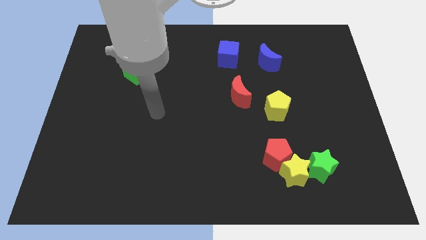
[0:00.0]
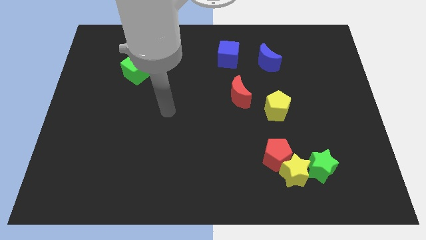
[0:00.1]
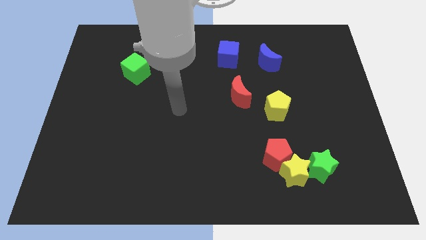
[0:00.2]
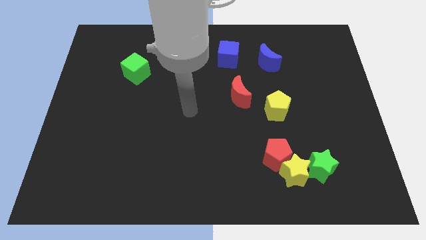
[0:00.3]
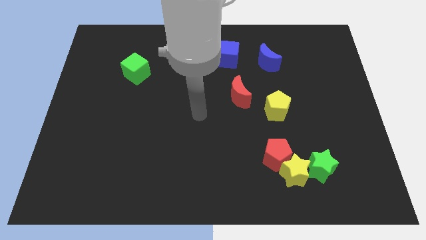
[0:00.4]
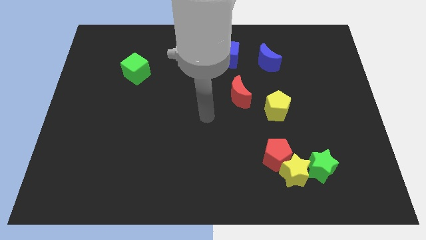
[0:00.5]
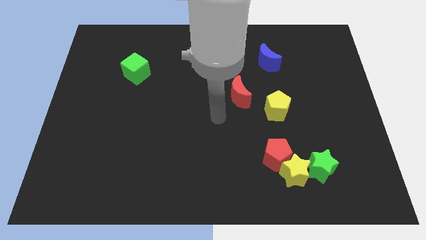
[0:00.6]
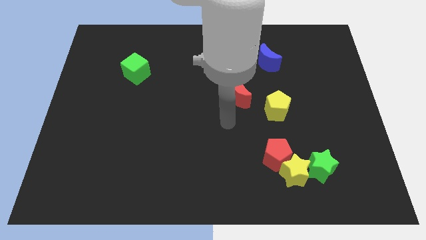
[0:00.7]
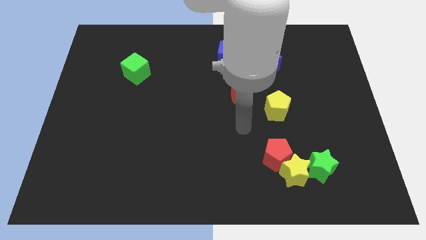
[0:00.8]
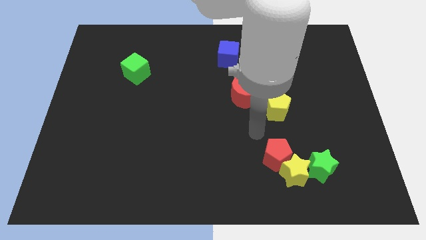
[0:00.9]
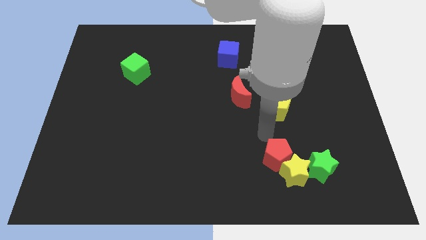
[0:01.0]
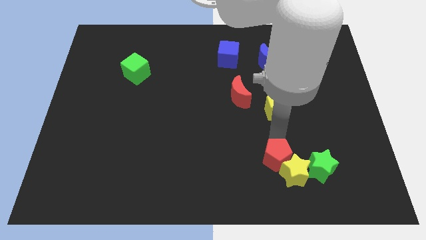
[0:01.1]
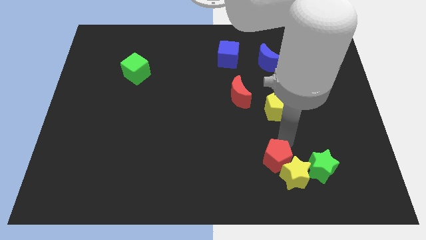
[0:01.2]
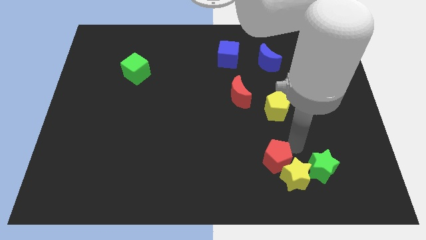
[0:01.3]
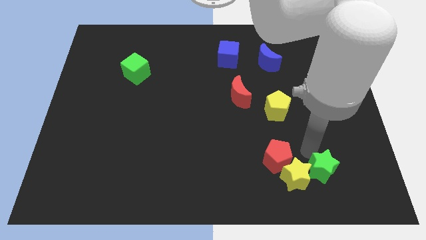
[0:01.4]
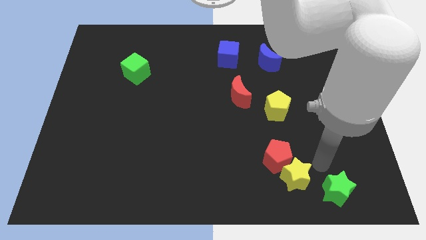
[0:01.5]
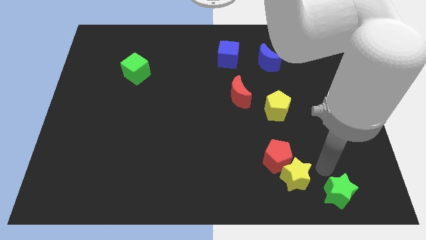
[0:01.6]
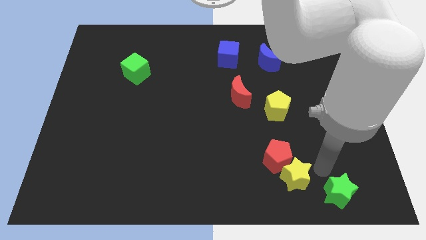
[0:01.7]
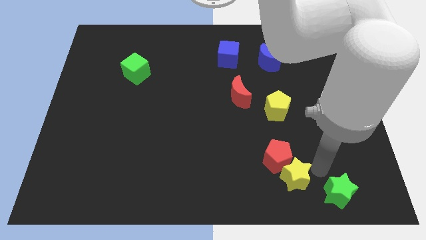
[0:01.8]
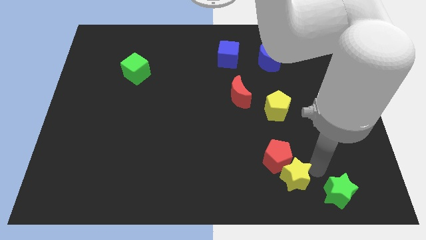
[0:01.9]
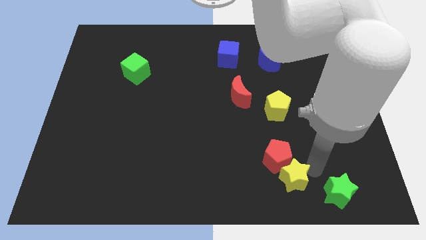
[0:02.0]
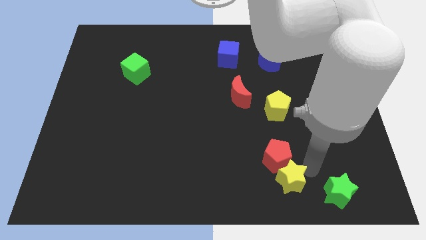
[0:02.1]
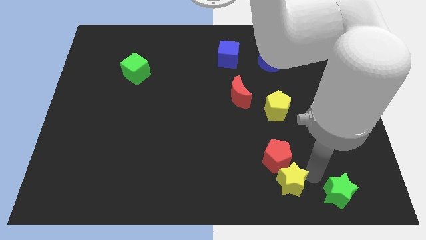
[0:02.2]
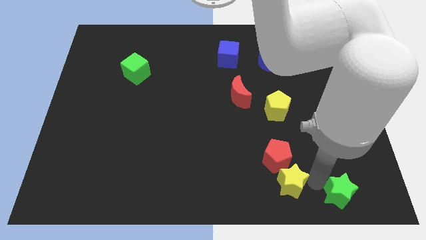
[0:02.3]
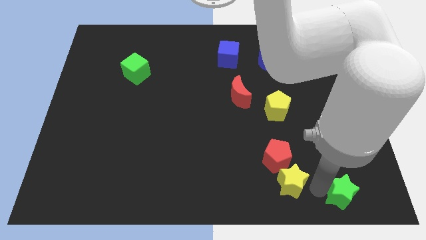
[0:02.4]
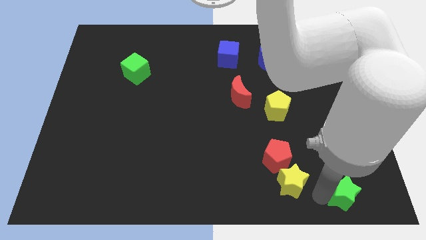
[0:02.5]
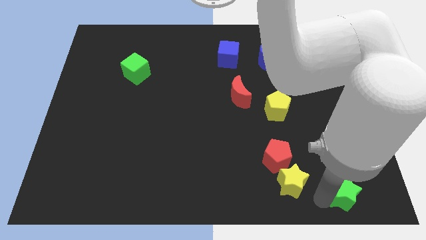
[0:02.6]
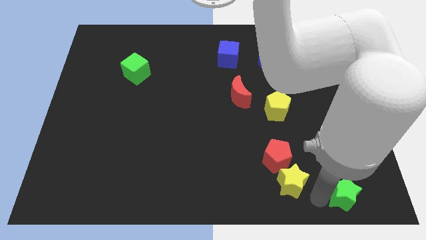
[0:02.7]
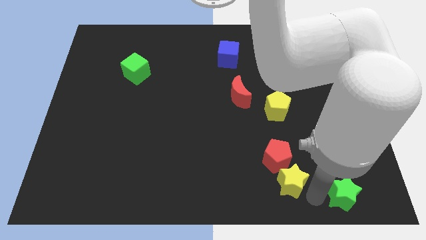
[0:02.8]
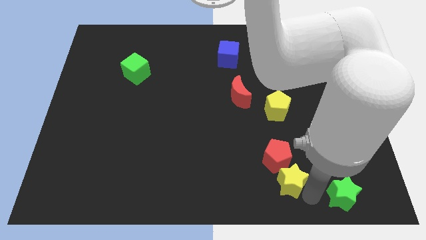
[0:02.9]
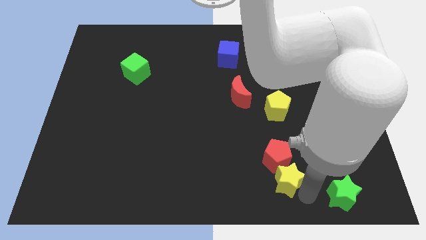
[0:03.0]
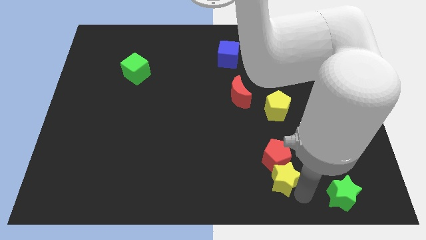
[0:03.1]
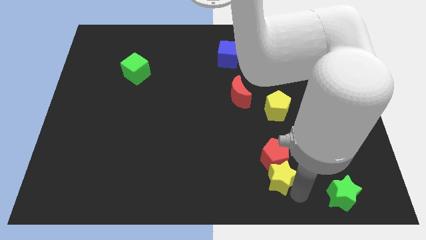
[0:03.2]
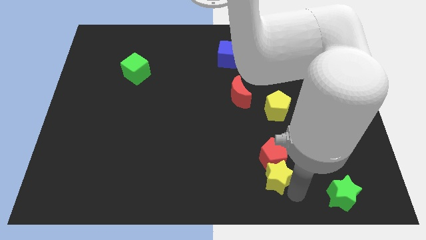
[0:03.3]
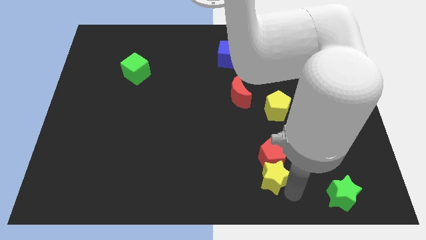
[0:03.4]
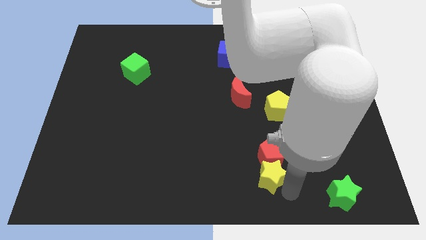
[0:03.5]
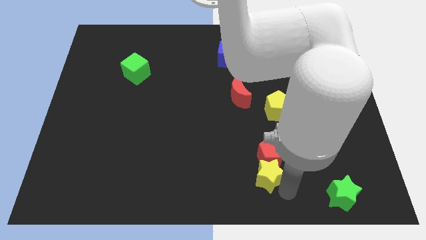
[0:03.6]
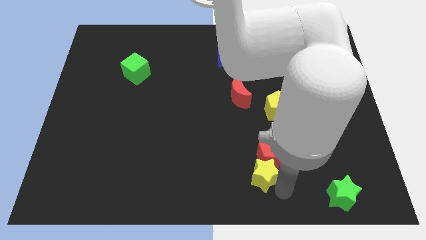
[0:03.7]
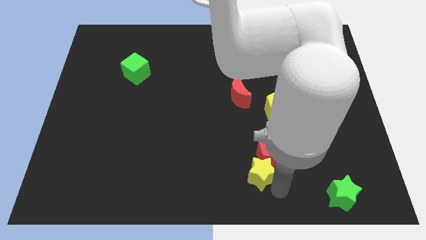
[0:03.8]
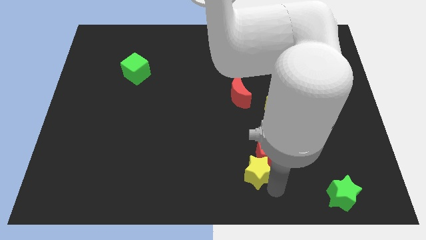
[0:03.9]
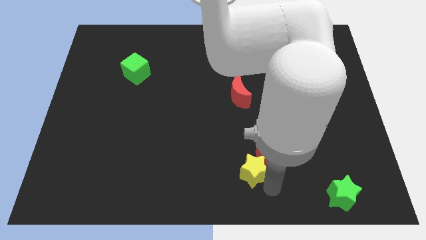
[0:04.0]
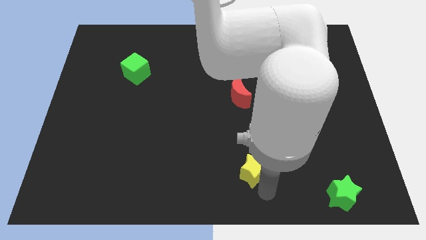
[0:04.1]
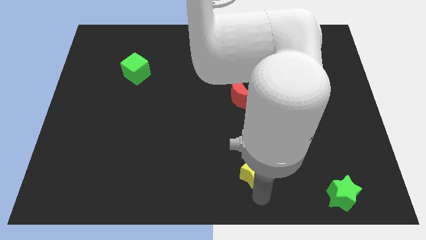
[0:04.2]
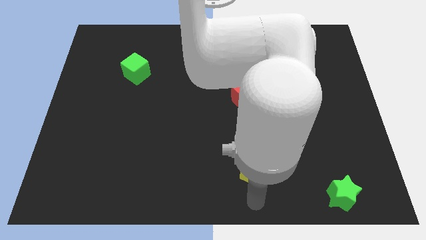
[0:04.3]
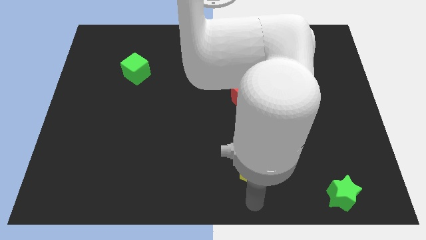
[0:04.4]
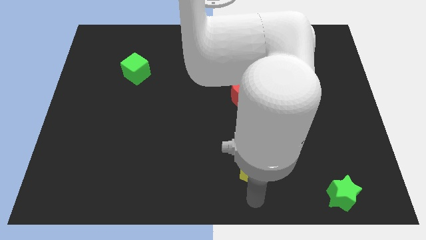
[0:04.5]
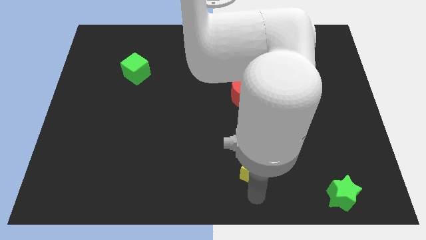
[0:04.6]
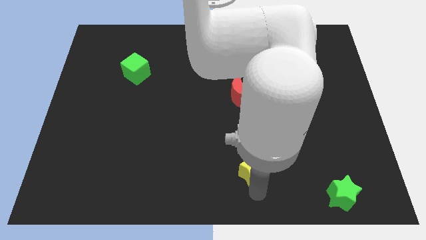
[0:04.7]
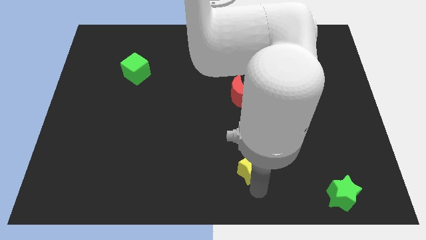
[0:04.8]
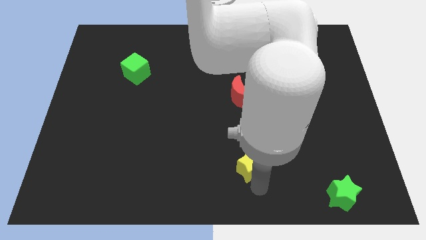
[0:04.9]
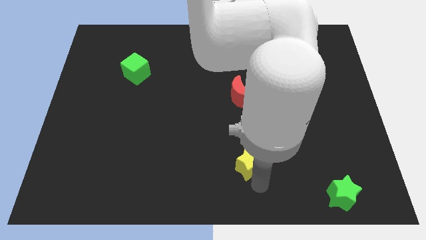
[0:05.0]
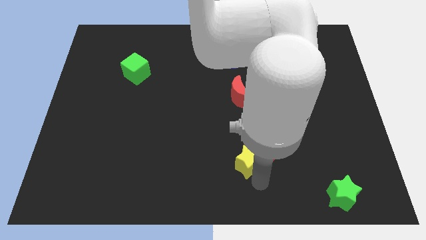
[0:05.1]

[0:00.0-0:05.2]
move the yellow star somewhat up and left

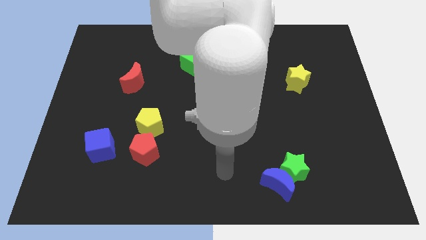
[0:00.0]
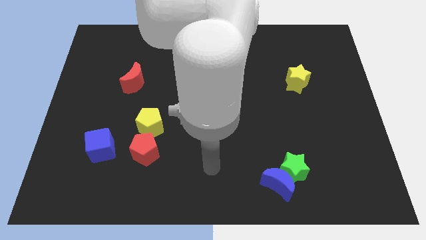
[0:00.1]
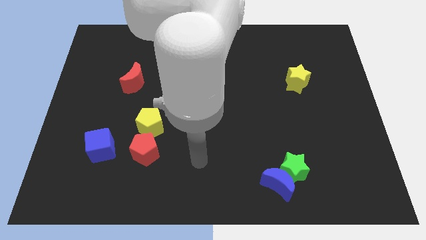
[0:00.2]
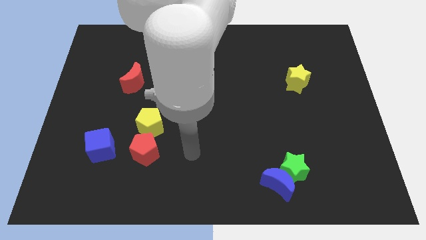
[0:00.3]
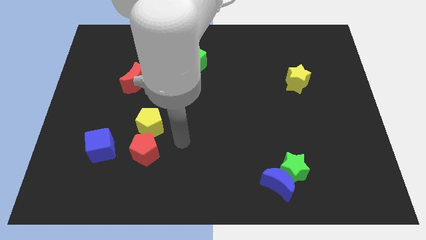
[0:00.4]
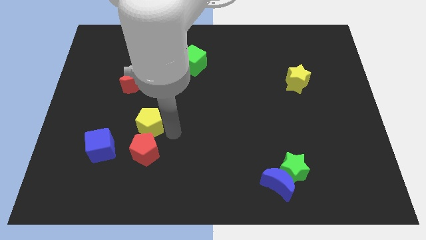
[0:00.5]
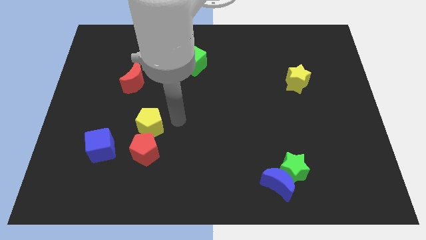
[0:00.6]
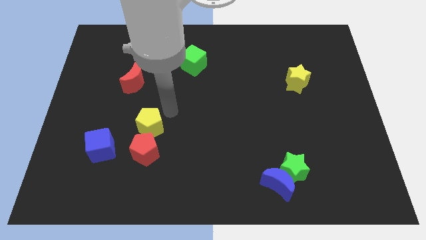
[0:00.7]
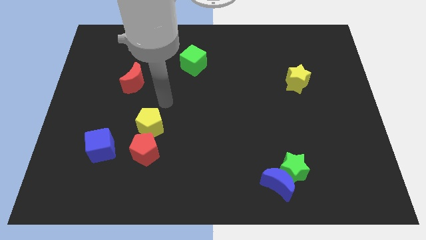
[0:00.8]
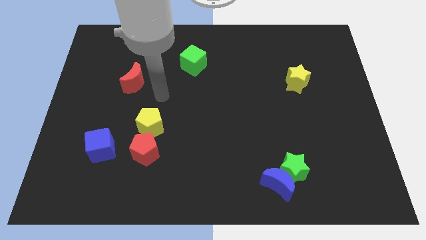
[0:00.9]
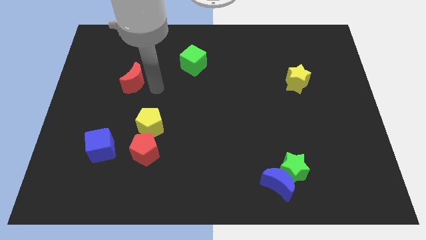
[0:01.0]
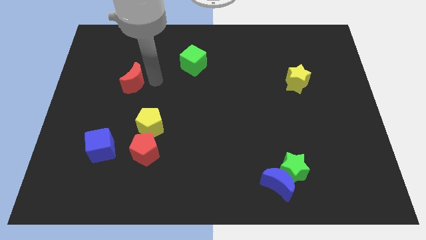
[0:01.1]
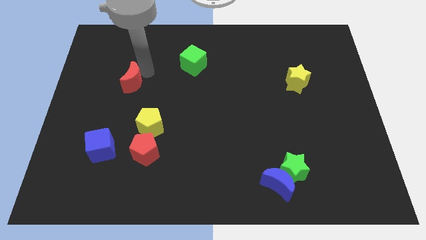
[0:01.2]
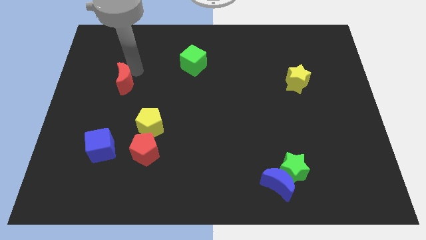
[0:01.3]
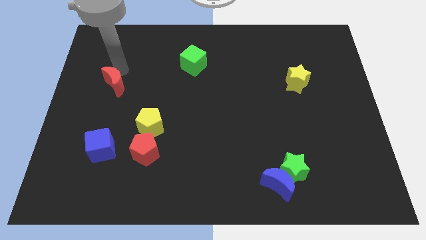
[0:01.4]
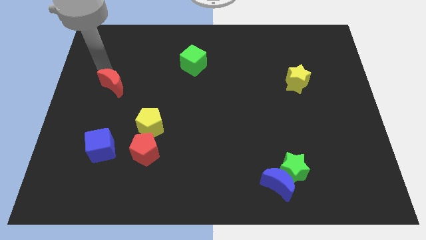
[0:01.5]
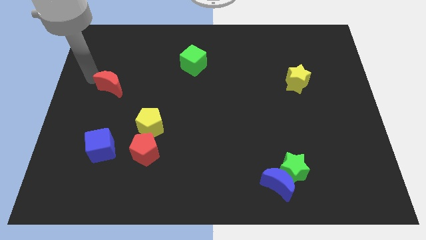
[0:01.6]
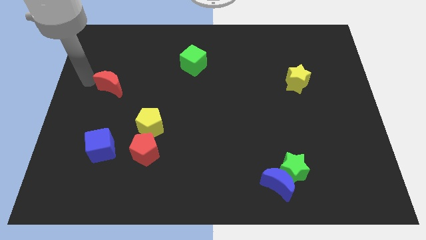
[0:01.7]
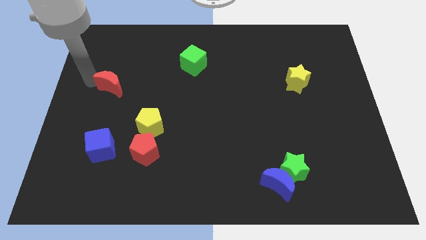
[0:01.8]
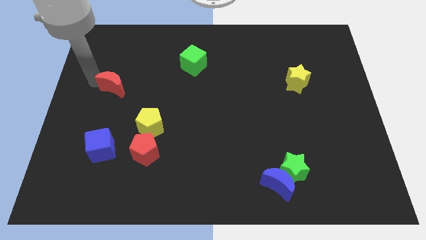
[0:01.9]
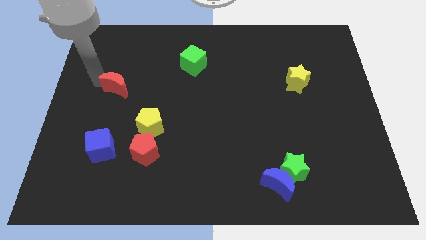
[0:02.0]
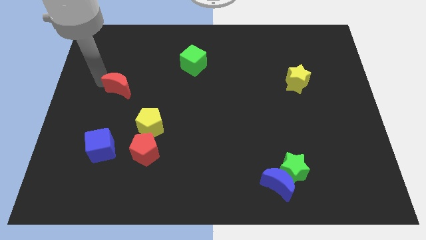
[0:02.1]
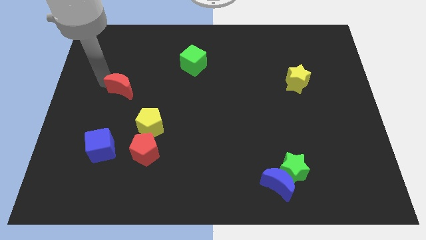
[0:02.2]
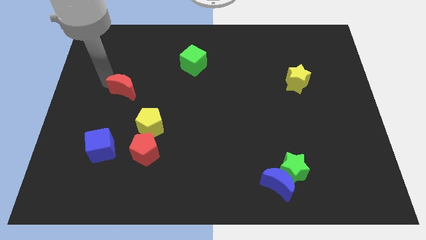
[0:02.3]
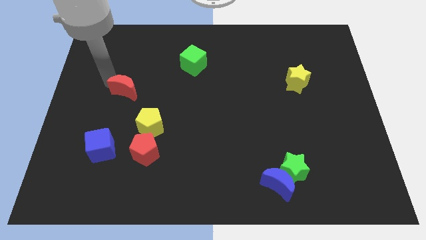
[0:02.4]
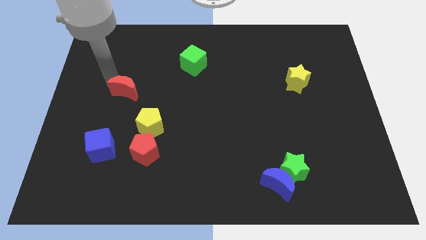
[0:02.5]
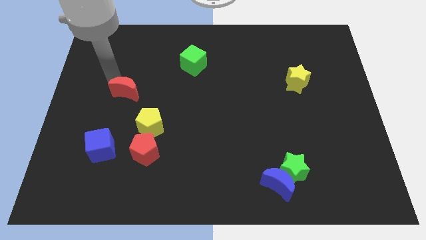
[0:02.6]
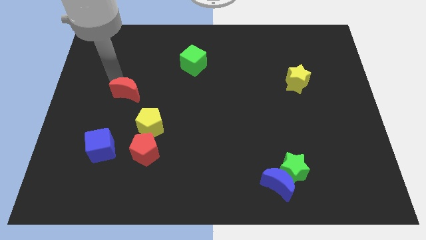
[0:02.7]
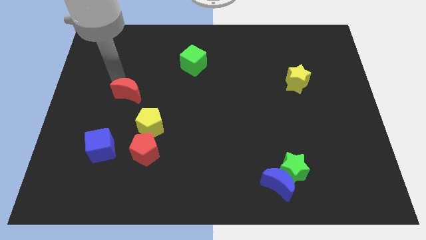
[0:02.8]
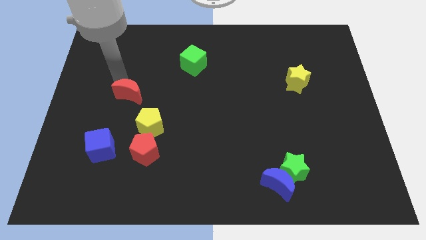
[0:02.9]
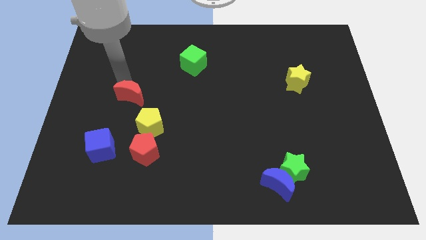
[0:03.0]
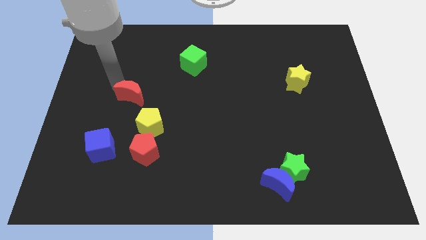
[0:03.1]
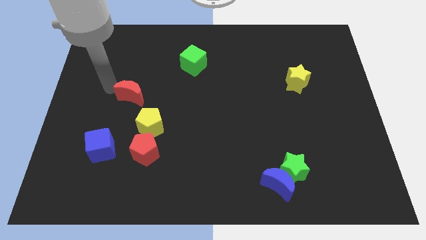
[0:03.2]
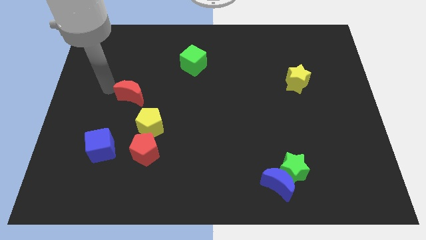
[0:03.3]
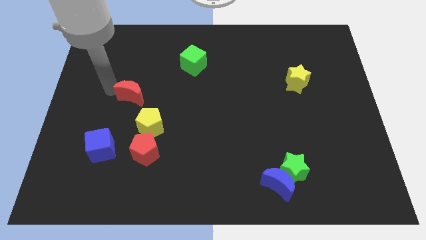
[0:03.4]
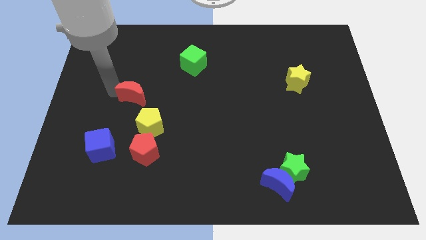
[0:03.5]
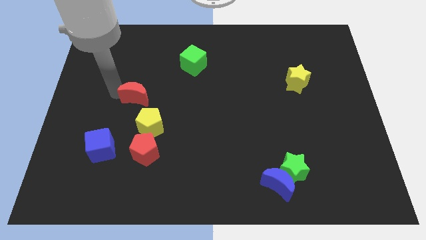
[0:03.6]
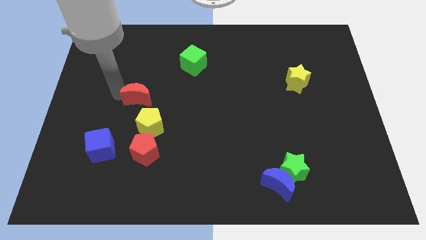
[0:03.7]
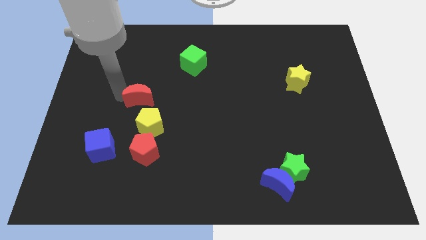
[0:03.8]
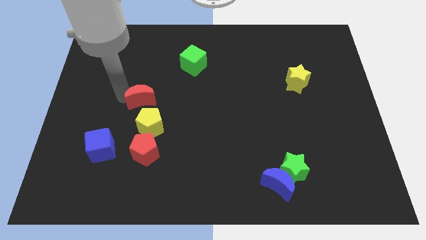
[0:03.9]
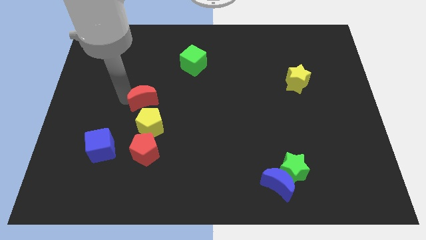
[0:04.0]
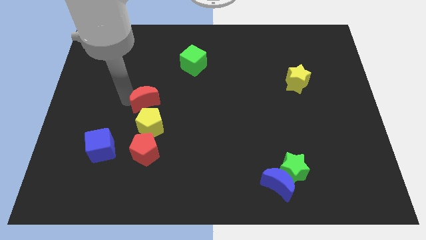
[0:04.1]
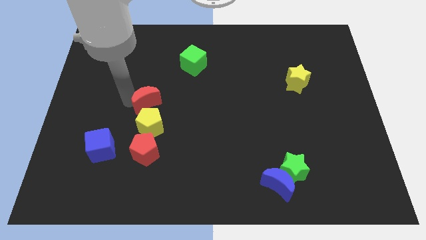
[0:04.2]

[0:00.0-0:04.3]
push the red moon somewhat diagonally downwards and to the right
